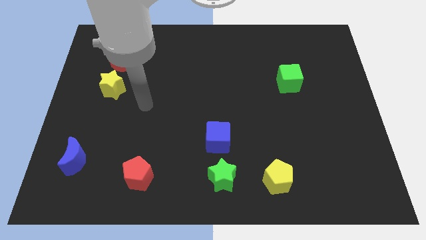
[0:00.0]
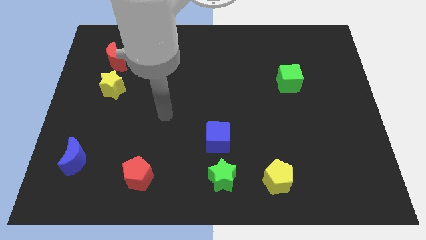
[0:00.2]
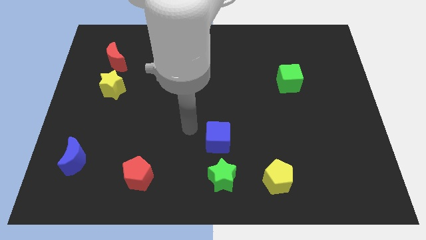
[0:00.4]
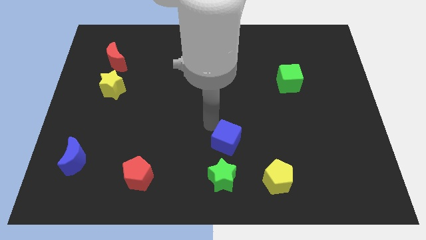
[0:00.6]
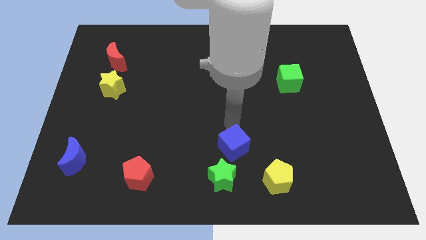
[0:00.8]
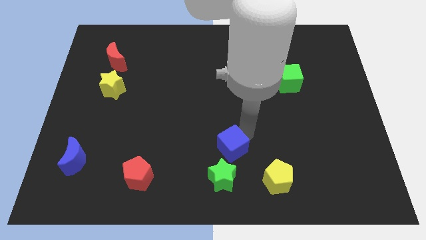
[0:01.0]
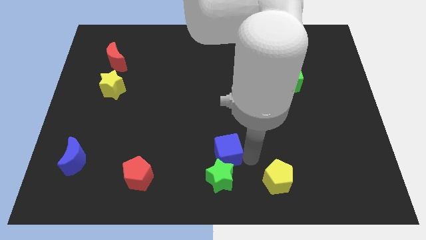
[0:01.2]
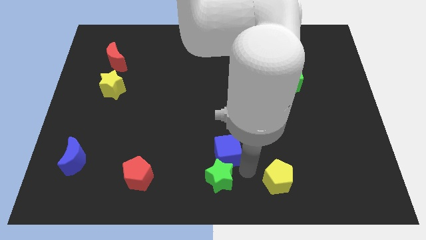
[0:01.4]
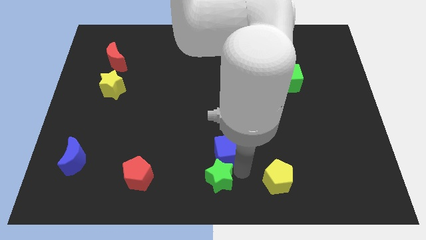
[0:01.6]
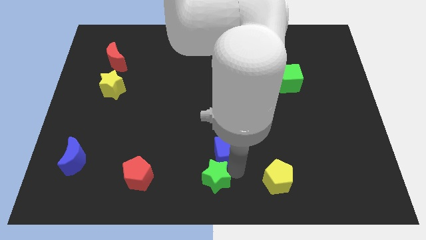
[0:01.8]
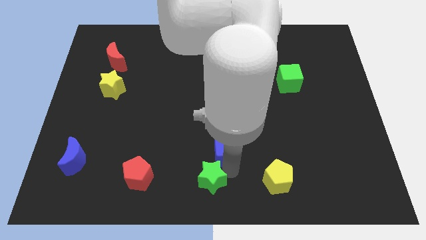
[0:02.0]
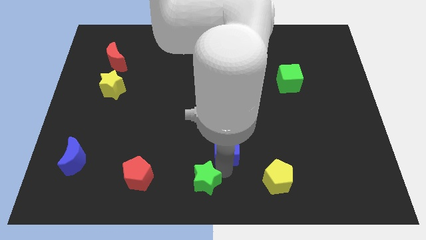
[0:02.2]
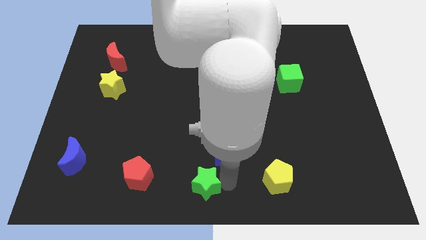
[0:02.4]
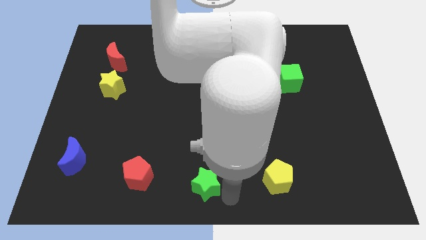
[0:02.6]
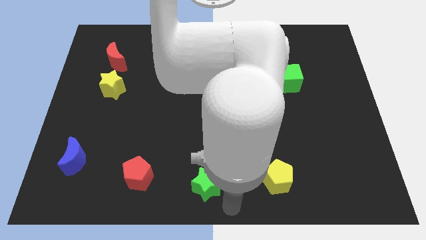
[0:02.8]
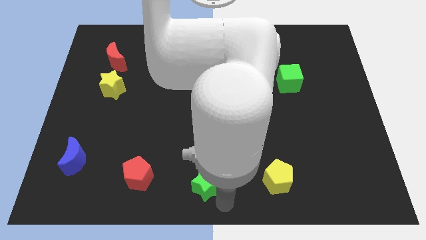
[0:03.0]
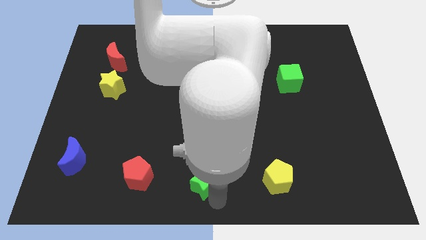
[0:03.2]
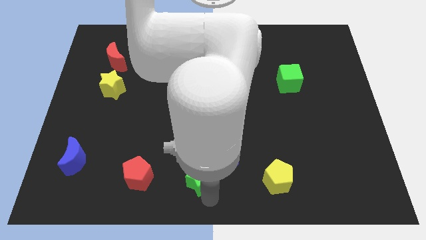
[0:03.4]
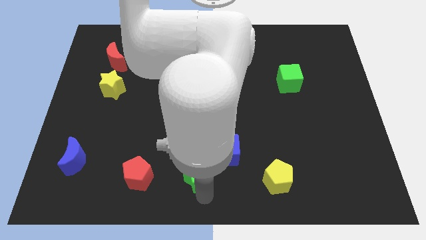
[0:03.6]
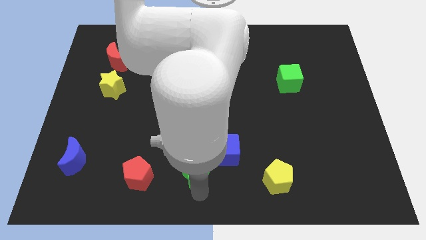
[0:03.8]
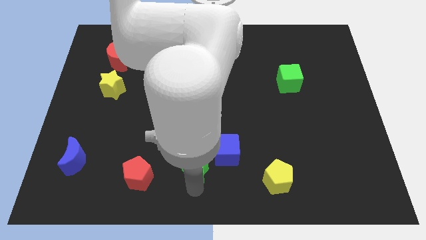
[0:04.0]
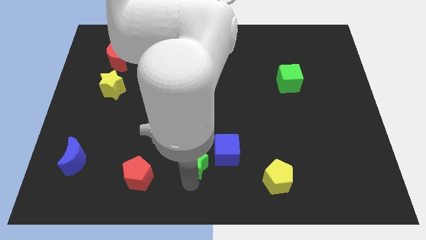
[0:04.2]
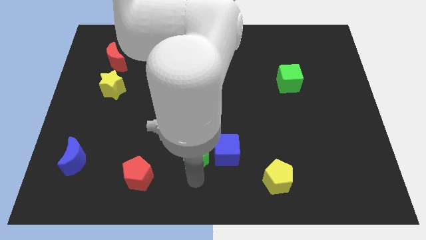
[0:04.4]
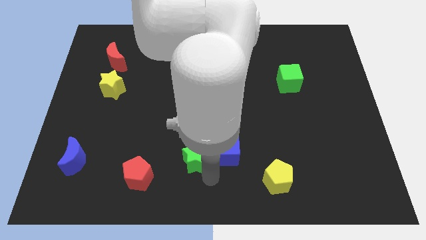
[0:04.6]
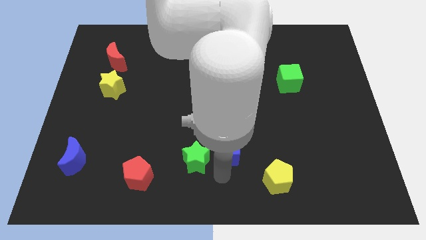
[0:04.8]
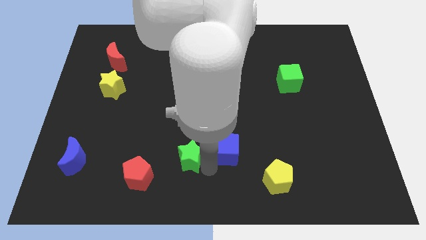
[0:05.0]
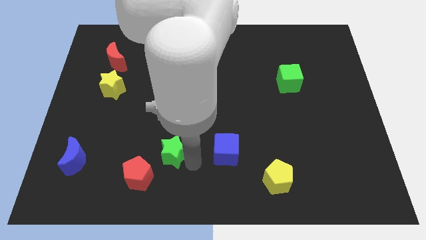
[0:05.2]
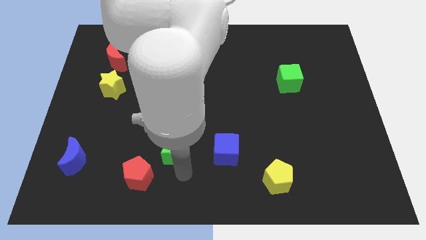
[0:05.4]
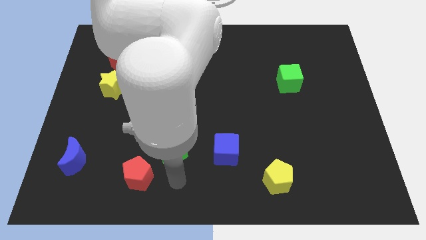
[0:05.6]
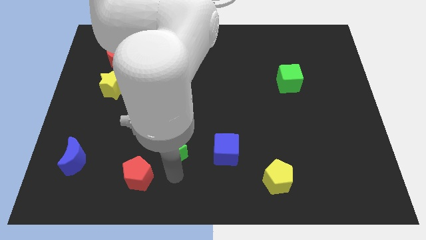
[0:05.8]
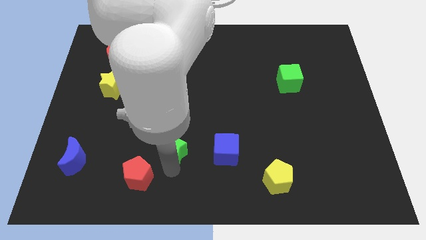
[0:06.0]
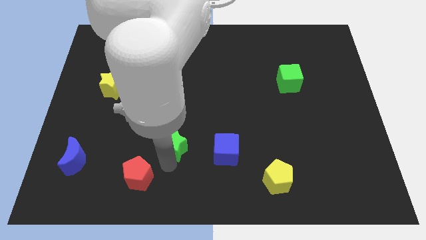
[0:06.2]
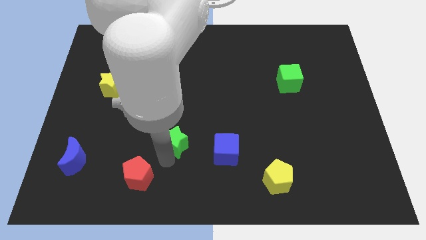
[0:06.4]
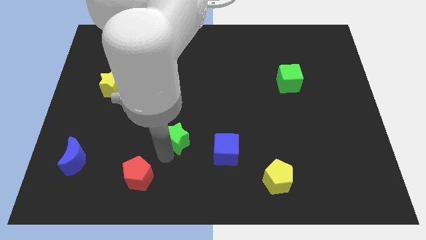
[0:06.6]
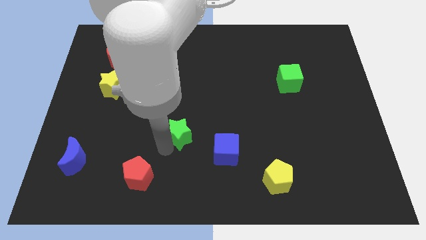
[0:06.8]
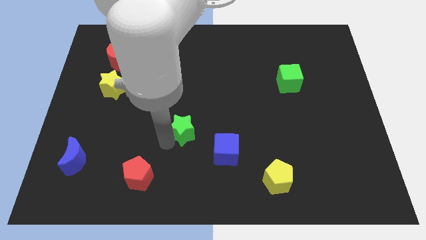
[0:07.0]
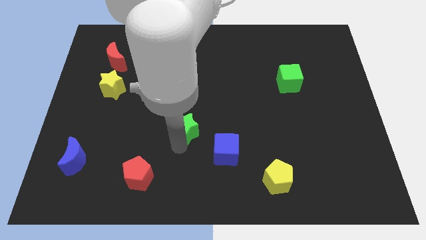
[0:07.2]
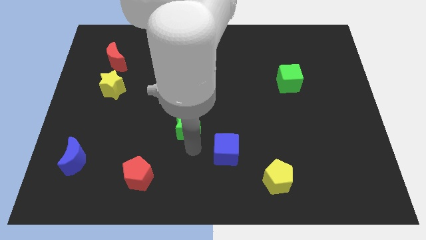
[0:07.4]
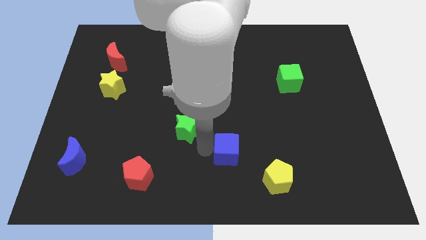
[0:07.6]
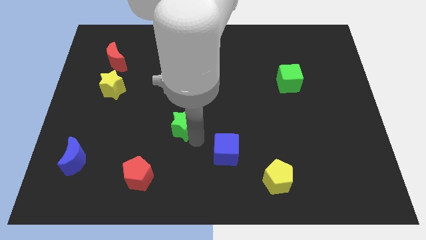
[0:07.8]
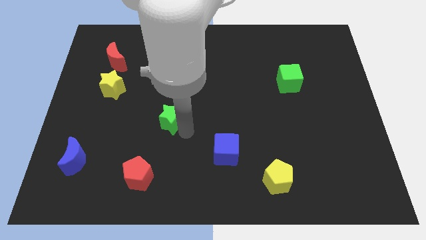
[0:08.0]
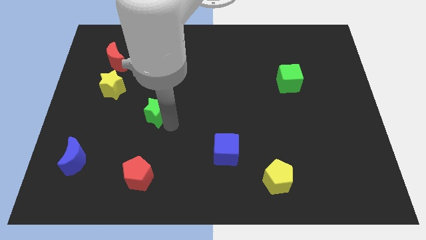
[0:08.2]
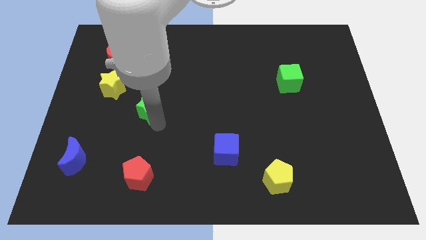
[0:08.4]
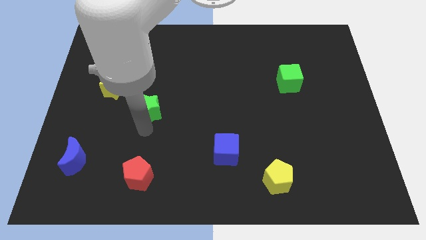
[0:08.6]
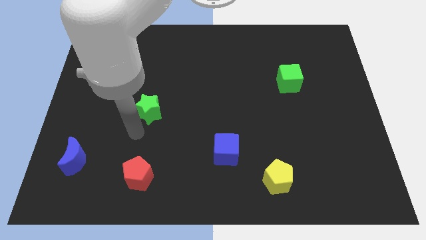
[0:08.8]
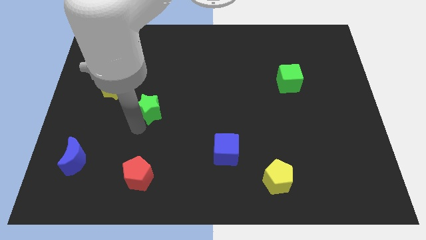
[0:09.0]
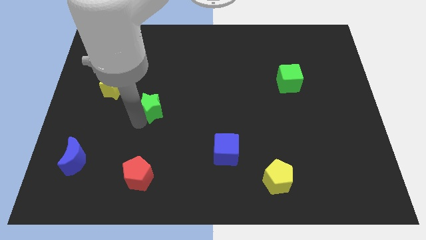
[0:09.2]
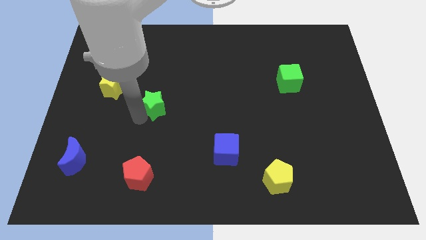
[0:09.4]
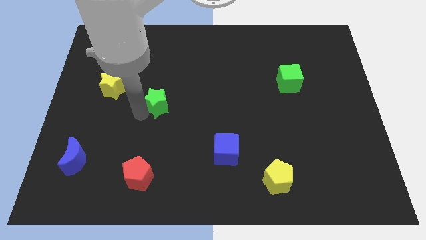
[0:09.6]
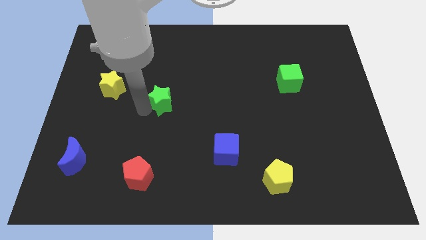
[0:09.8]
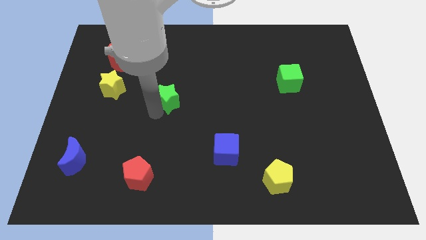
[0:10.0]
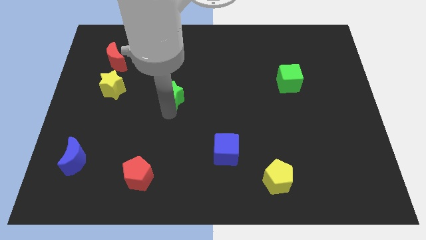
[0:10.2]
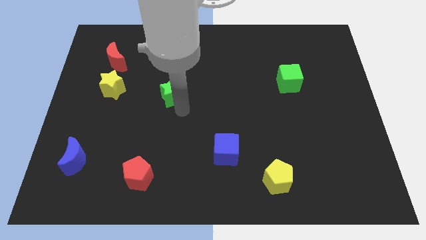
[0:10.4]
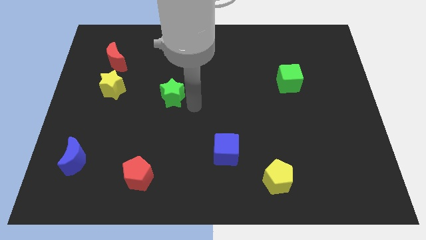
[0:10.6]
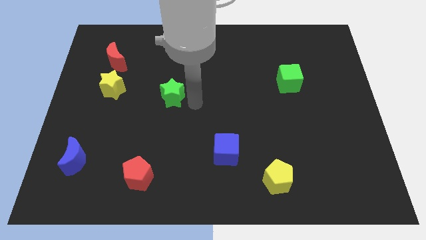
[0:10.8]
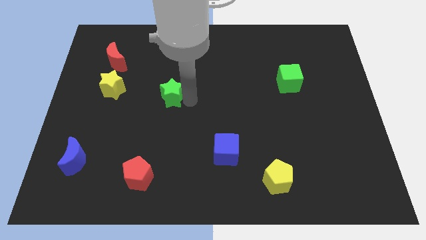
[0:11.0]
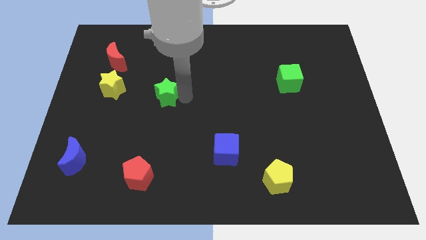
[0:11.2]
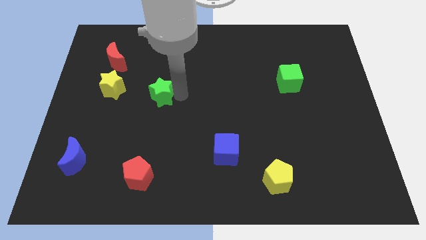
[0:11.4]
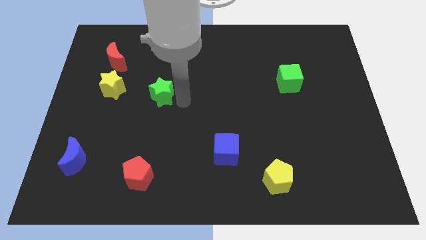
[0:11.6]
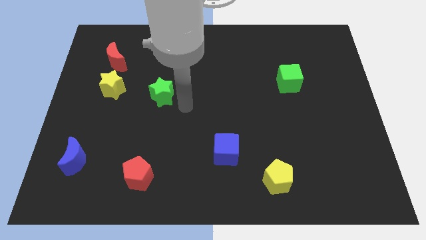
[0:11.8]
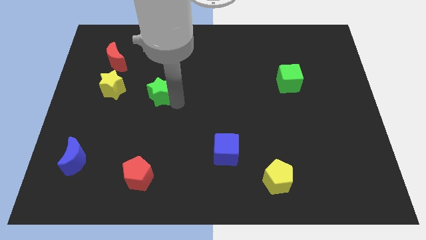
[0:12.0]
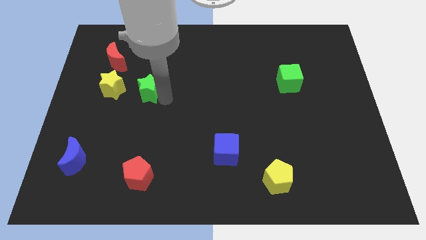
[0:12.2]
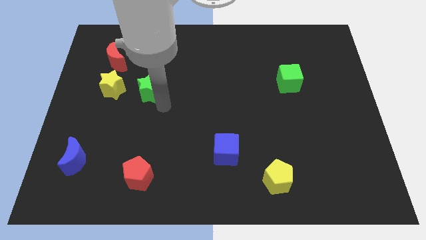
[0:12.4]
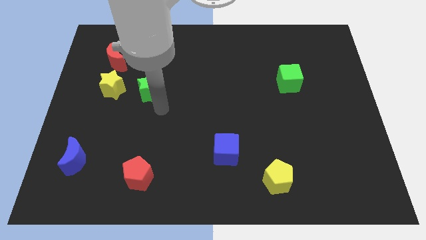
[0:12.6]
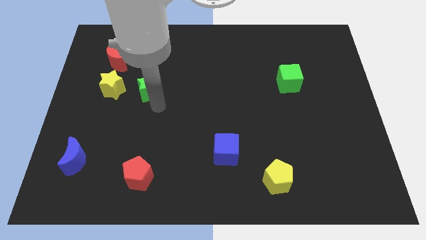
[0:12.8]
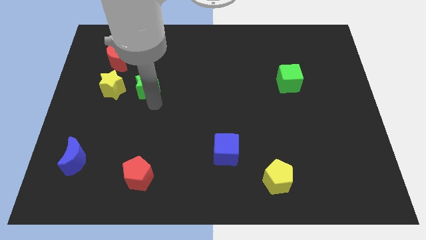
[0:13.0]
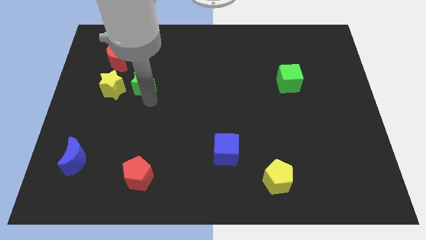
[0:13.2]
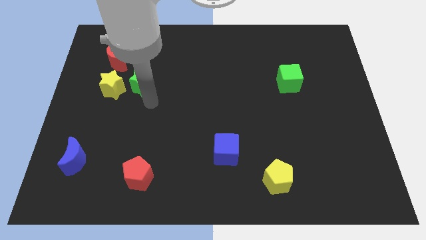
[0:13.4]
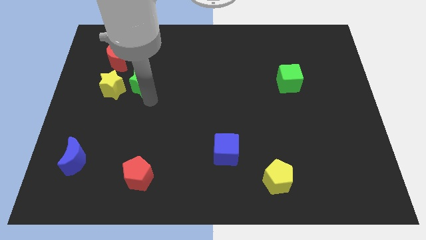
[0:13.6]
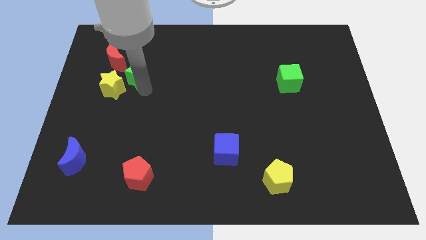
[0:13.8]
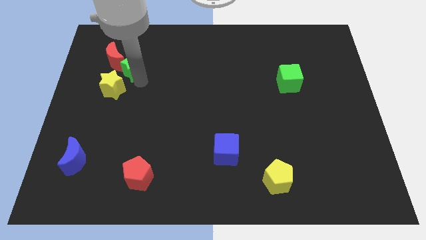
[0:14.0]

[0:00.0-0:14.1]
put the green star towards the red moon

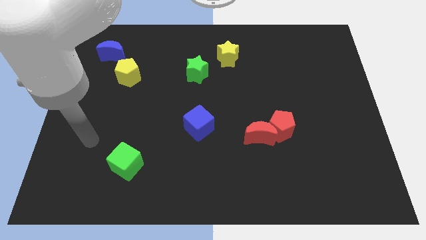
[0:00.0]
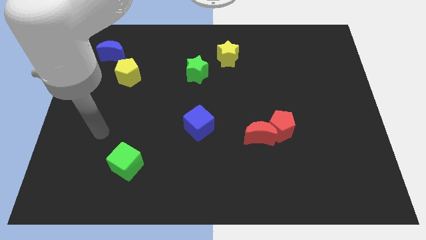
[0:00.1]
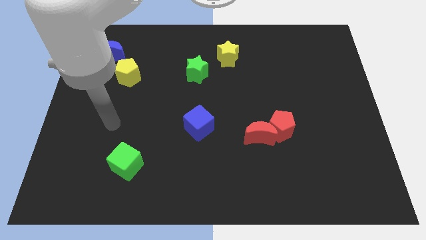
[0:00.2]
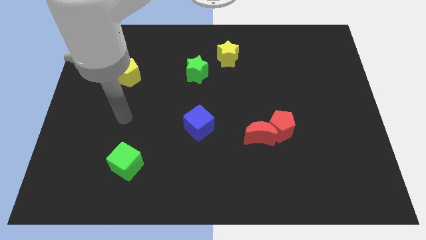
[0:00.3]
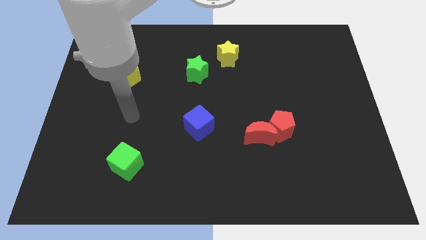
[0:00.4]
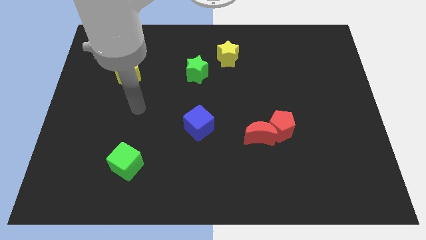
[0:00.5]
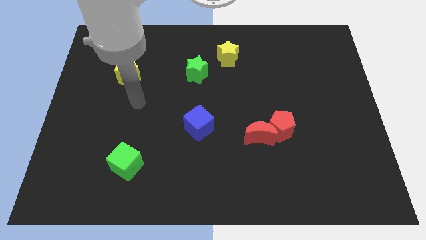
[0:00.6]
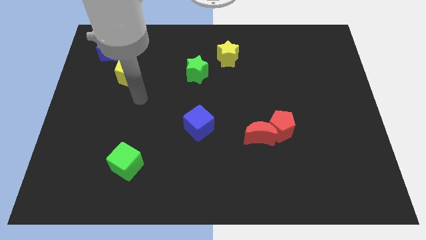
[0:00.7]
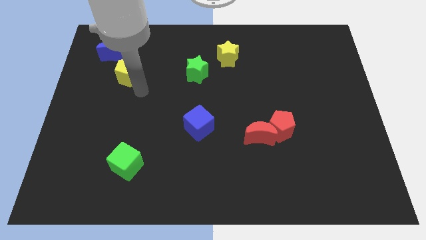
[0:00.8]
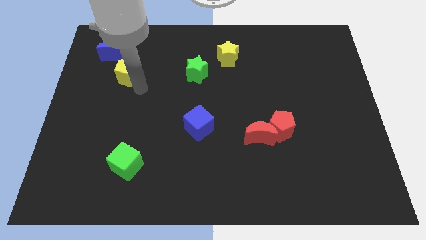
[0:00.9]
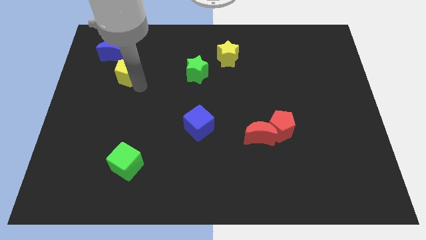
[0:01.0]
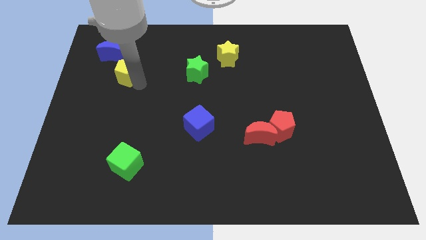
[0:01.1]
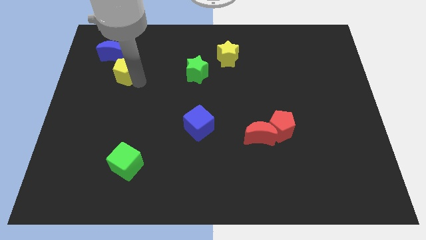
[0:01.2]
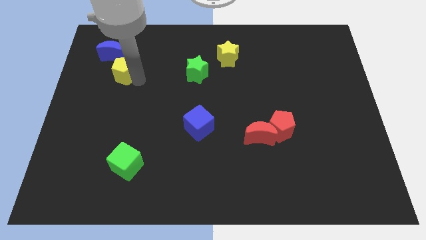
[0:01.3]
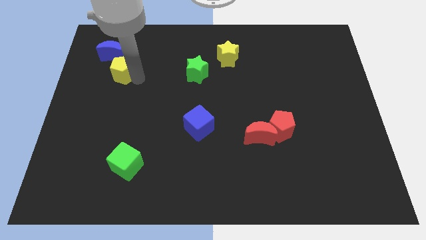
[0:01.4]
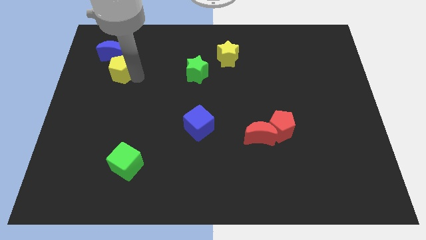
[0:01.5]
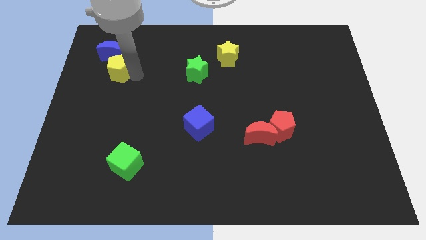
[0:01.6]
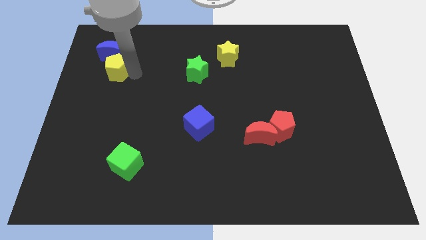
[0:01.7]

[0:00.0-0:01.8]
put the yellow pentagon to the blue moon
